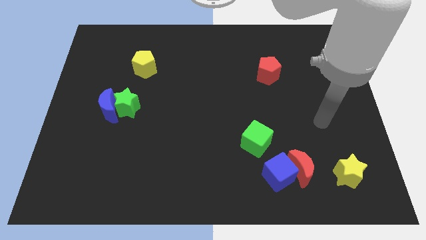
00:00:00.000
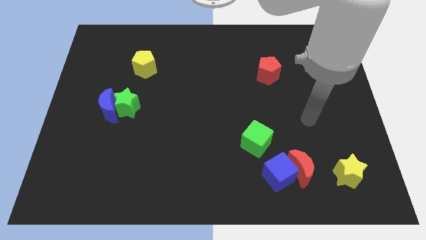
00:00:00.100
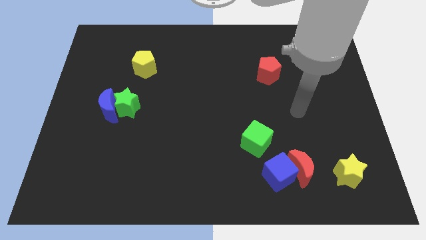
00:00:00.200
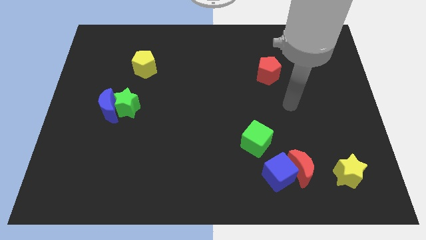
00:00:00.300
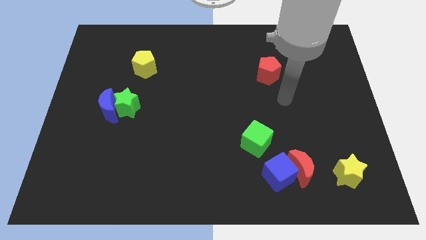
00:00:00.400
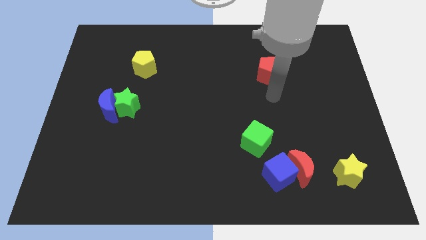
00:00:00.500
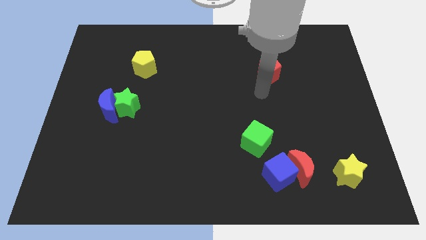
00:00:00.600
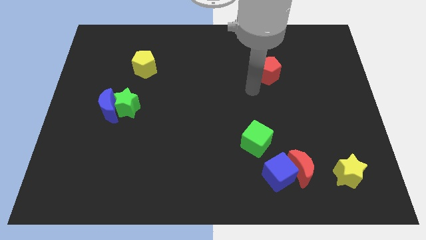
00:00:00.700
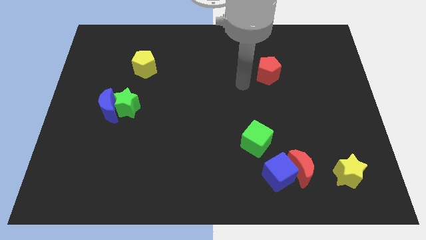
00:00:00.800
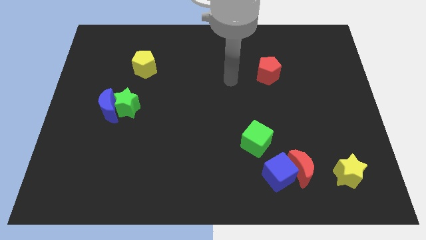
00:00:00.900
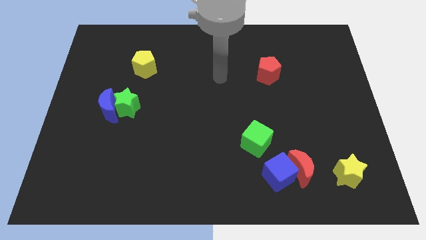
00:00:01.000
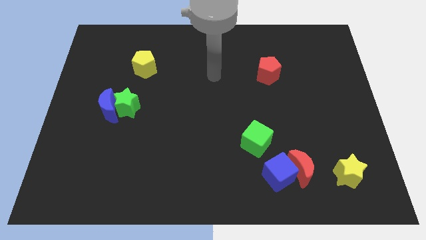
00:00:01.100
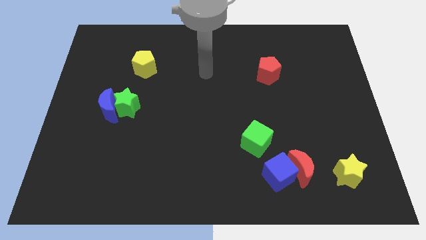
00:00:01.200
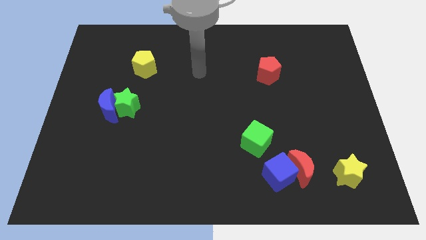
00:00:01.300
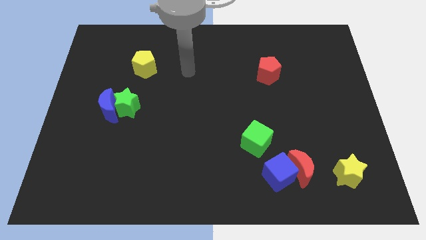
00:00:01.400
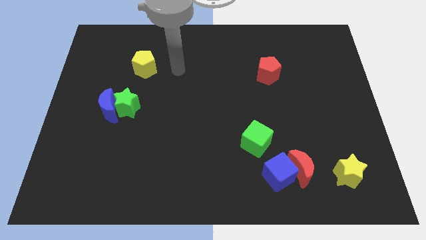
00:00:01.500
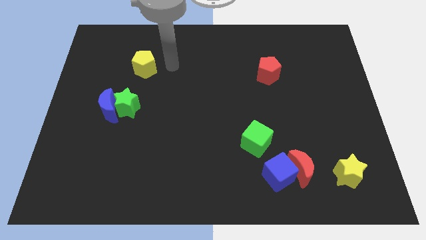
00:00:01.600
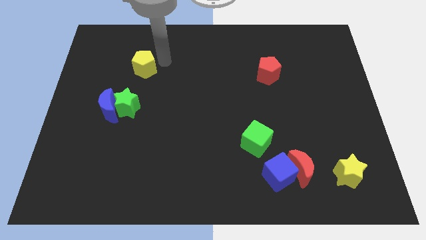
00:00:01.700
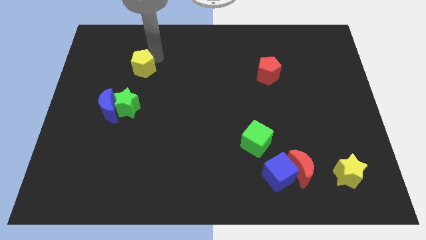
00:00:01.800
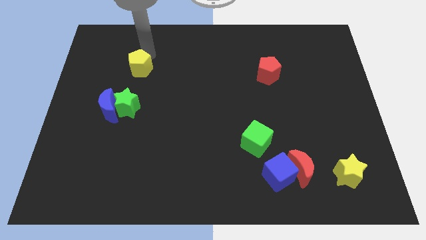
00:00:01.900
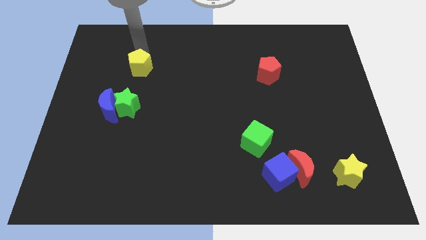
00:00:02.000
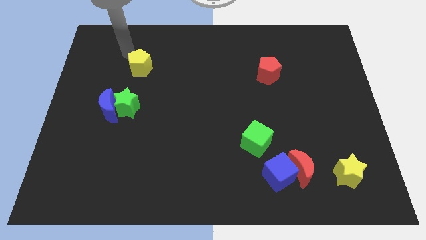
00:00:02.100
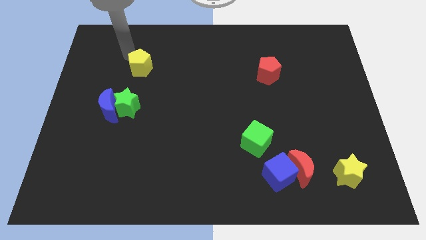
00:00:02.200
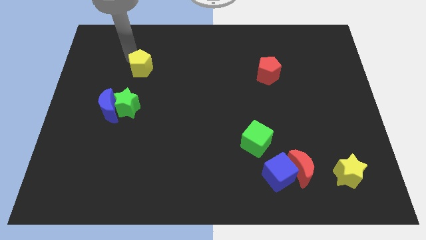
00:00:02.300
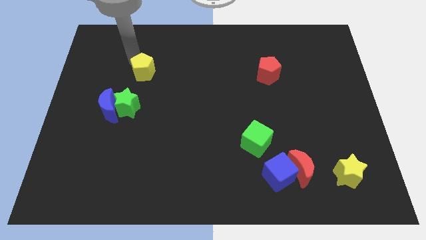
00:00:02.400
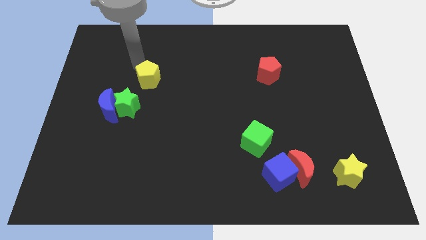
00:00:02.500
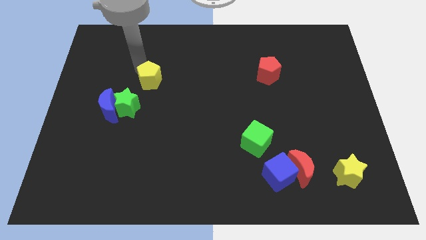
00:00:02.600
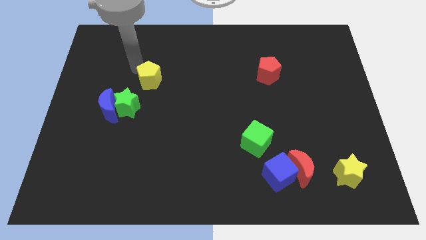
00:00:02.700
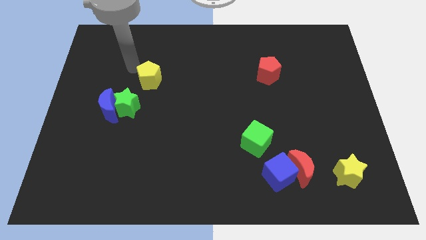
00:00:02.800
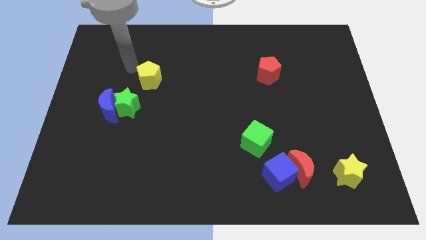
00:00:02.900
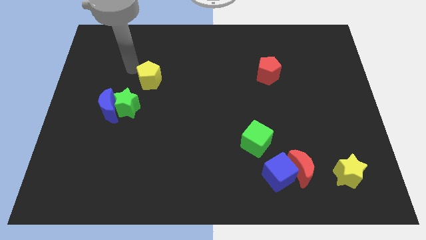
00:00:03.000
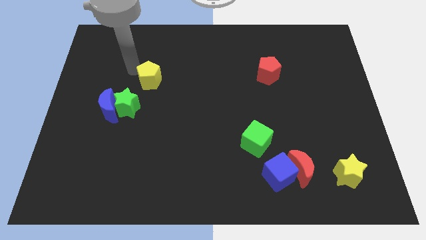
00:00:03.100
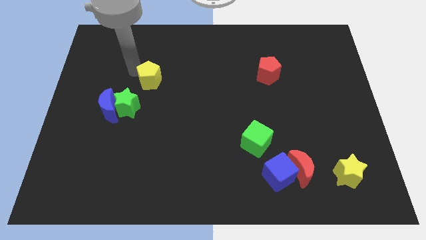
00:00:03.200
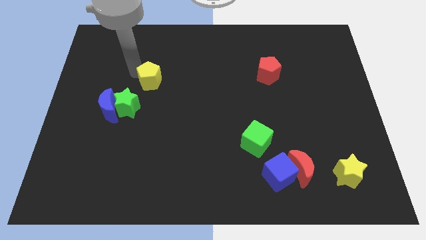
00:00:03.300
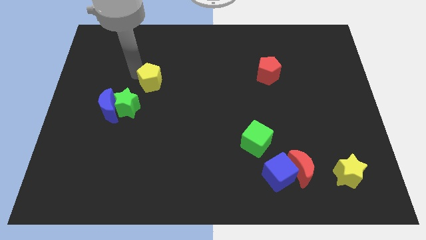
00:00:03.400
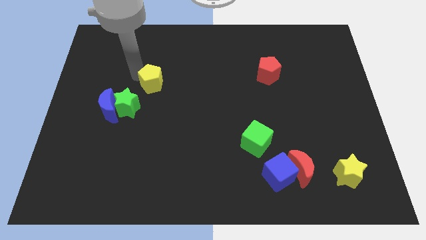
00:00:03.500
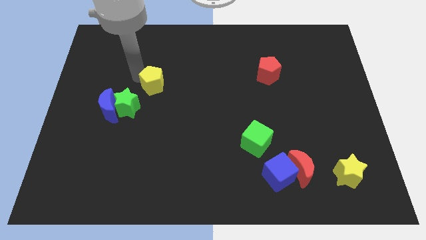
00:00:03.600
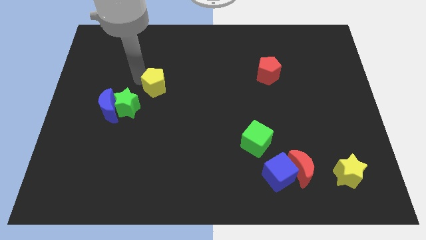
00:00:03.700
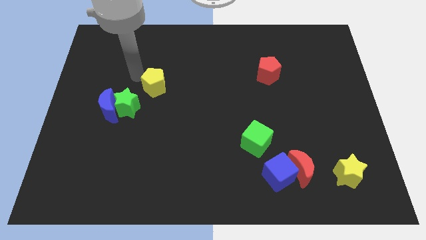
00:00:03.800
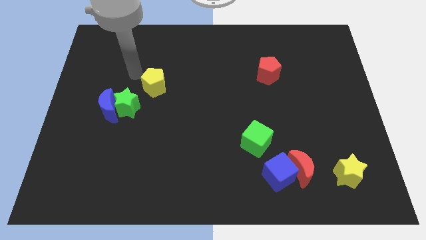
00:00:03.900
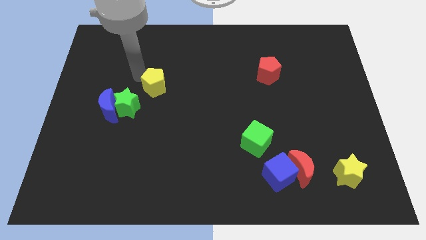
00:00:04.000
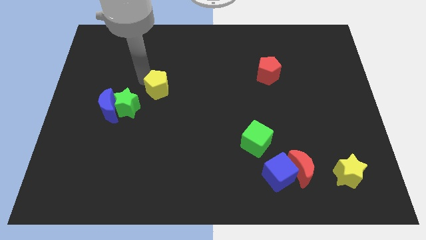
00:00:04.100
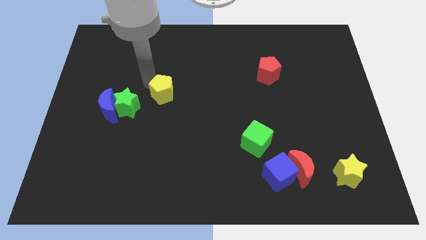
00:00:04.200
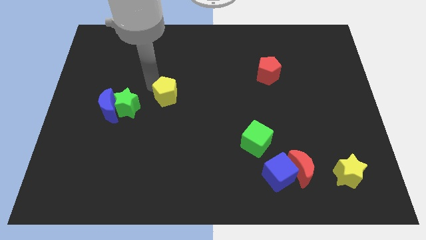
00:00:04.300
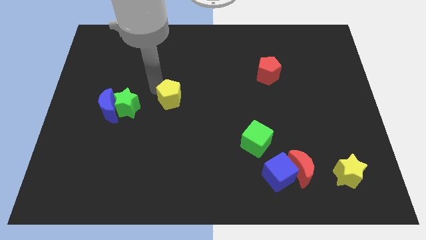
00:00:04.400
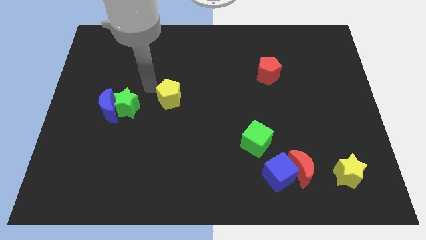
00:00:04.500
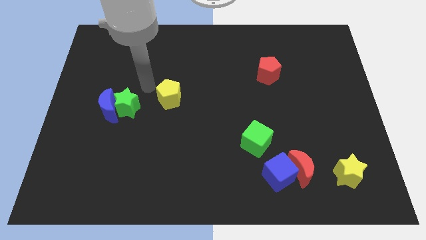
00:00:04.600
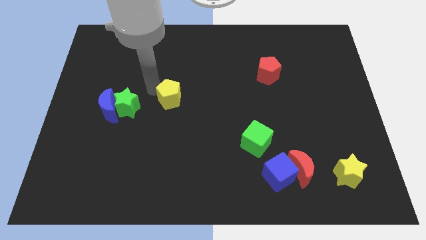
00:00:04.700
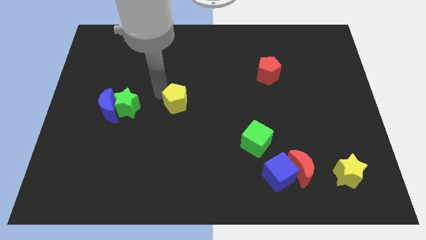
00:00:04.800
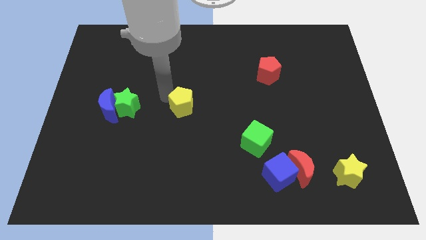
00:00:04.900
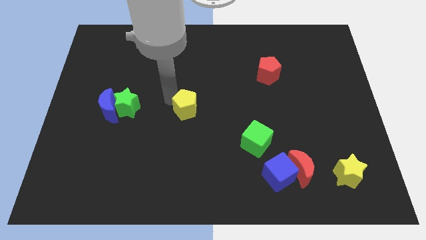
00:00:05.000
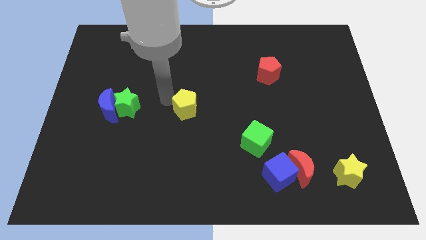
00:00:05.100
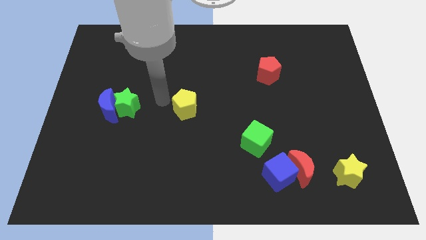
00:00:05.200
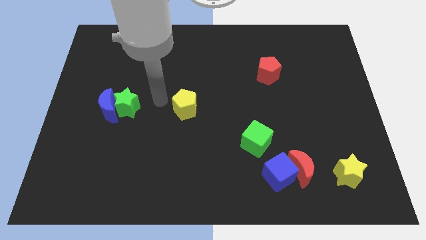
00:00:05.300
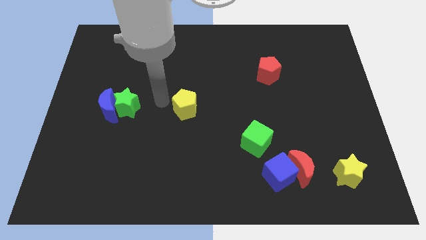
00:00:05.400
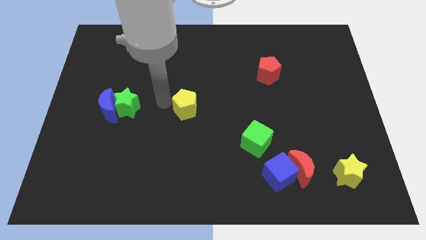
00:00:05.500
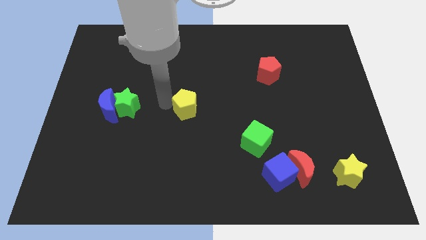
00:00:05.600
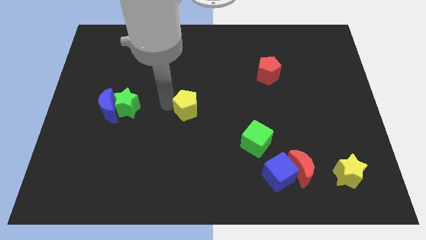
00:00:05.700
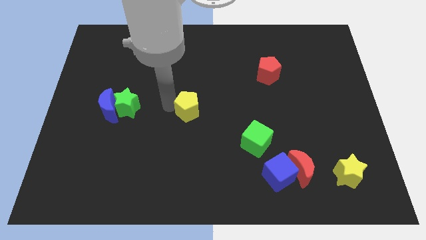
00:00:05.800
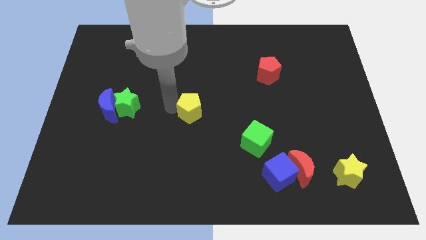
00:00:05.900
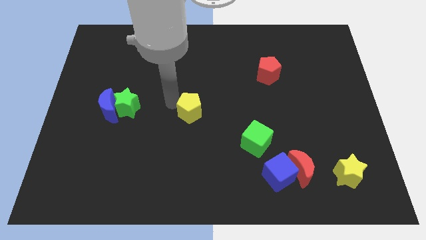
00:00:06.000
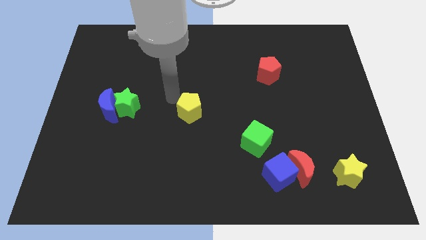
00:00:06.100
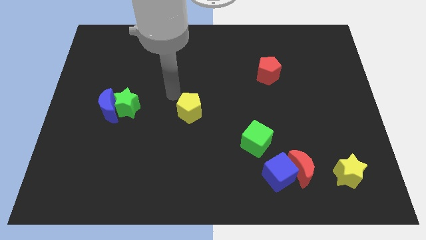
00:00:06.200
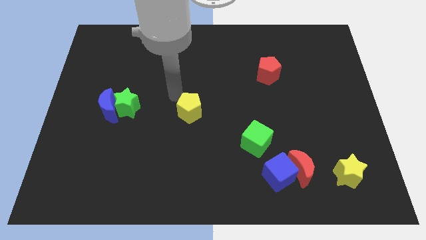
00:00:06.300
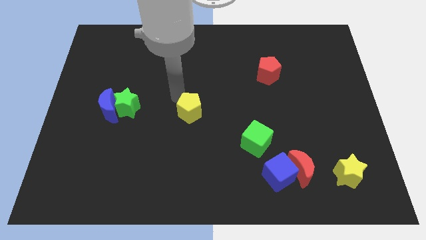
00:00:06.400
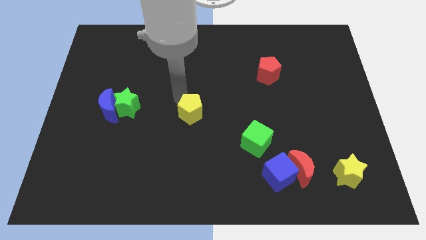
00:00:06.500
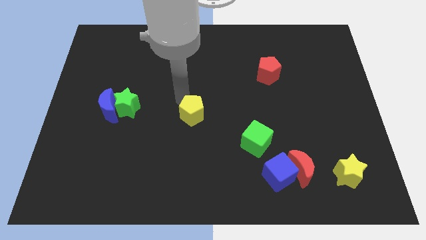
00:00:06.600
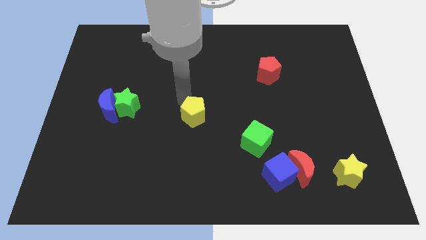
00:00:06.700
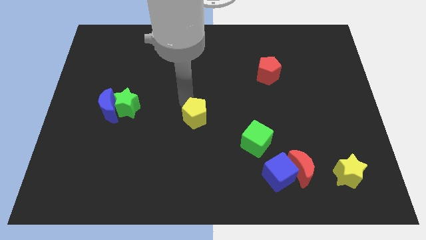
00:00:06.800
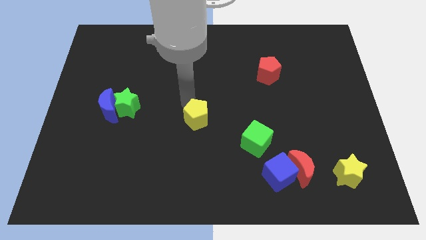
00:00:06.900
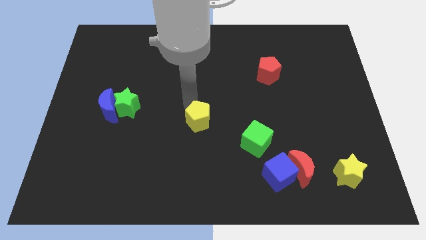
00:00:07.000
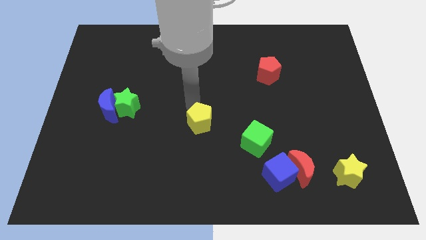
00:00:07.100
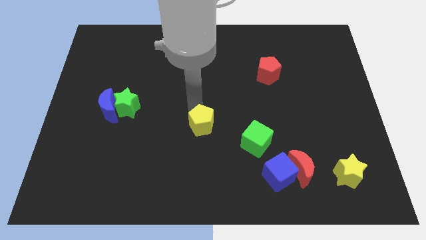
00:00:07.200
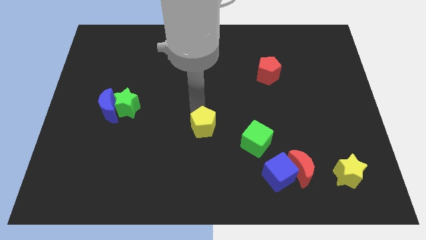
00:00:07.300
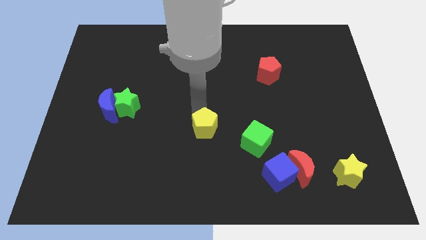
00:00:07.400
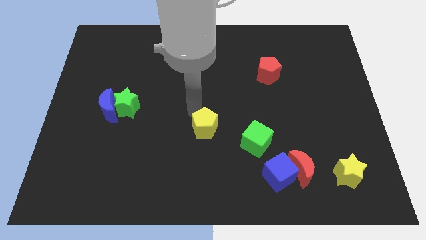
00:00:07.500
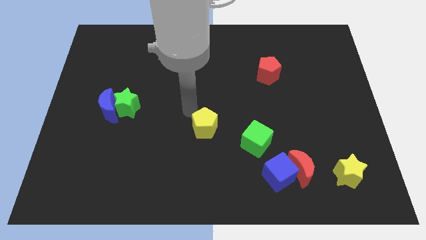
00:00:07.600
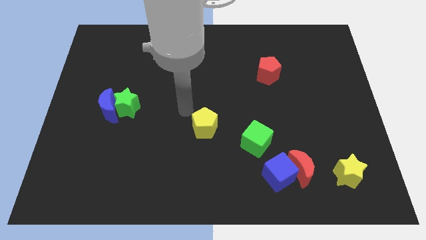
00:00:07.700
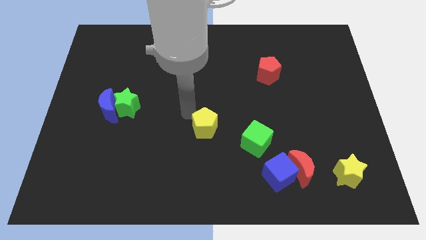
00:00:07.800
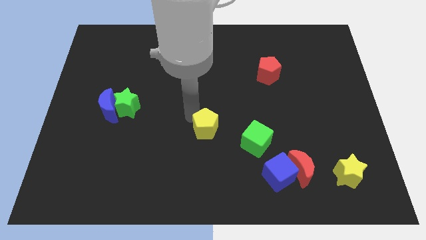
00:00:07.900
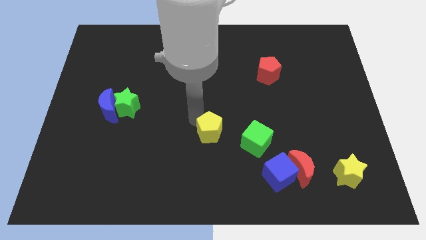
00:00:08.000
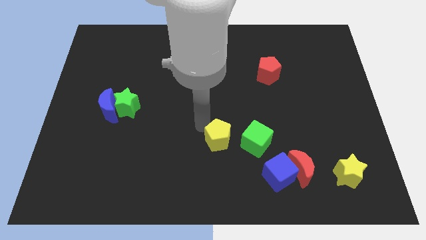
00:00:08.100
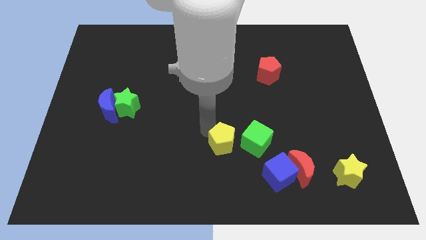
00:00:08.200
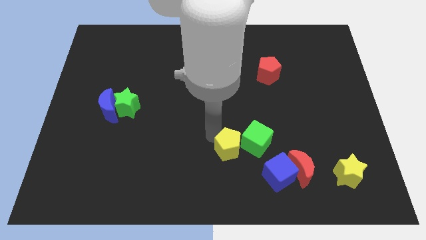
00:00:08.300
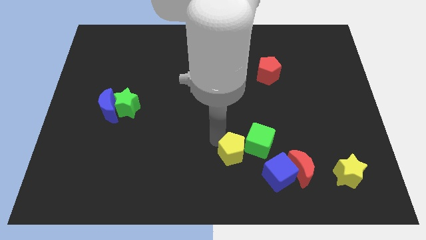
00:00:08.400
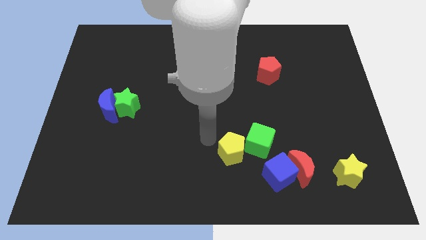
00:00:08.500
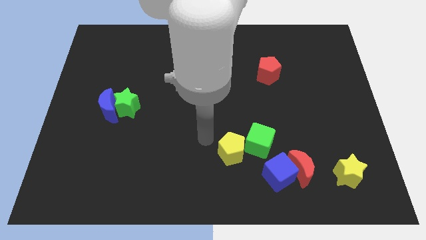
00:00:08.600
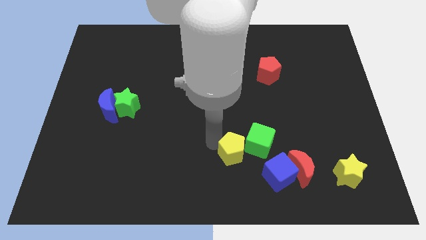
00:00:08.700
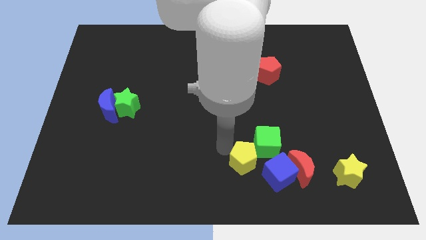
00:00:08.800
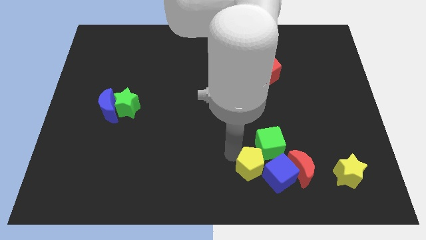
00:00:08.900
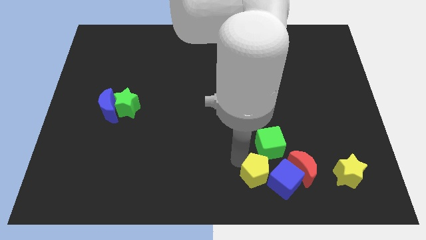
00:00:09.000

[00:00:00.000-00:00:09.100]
move the yellow pentagon next to the blue cube
